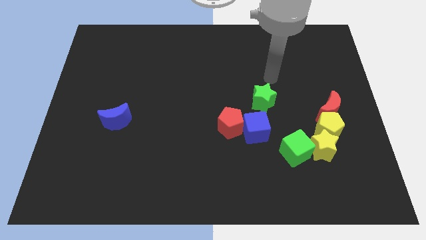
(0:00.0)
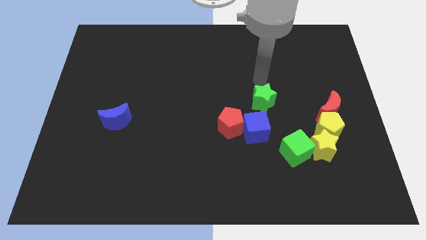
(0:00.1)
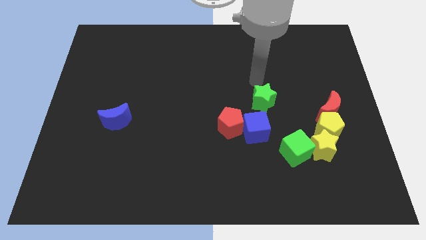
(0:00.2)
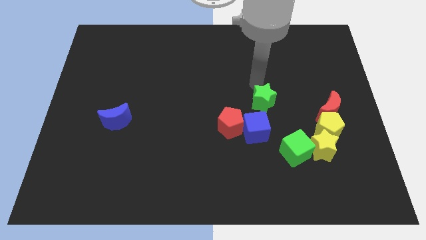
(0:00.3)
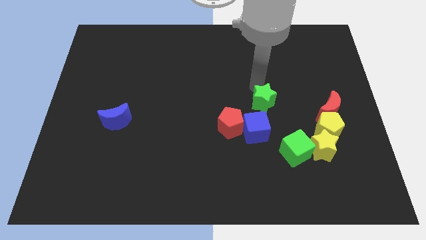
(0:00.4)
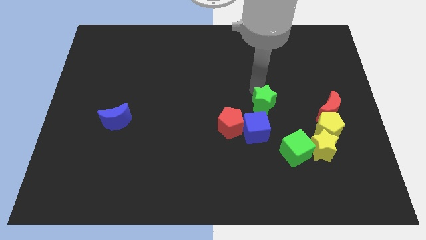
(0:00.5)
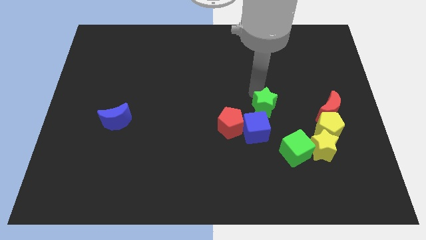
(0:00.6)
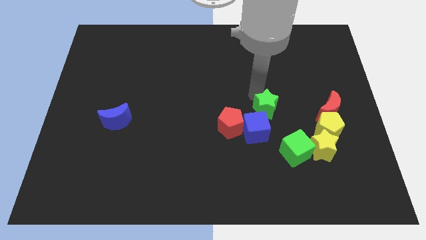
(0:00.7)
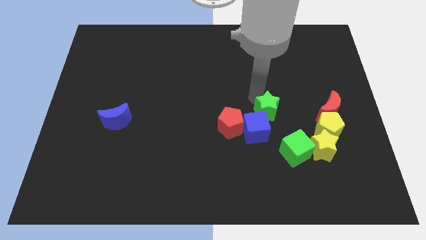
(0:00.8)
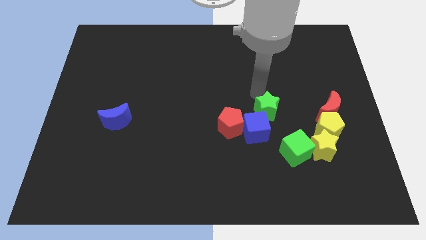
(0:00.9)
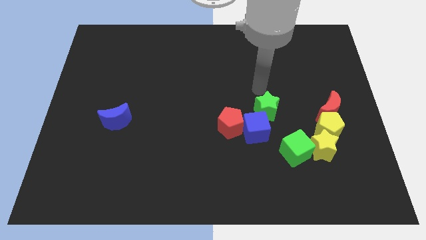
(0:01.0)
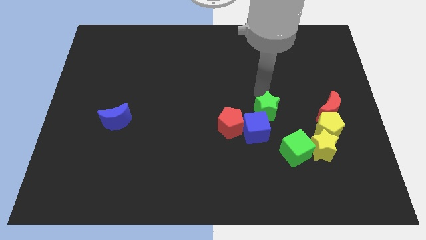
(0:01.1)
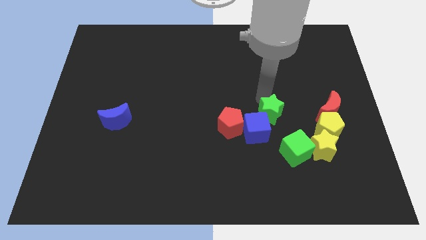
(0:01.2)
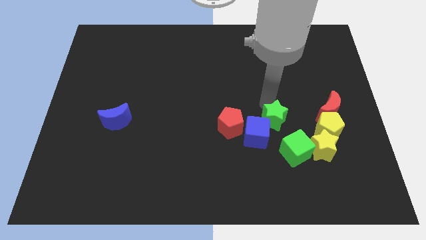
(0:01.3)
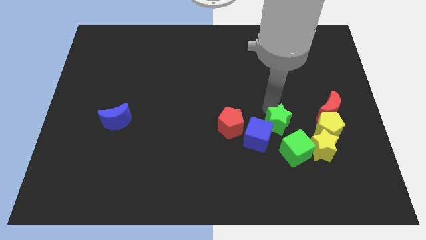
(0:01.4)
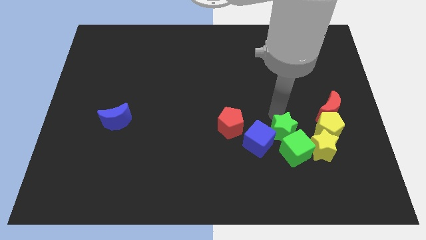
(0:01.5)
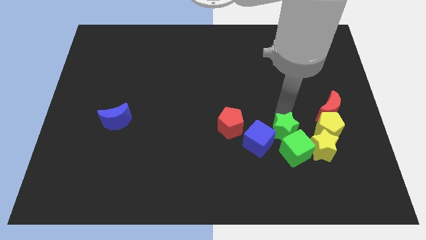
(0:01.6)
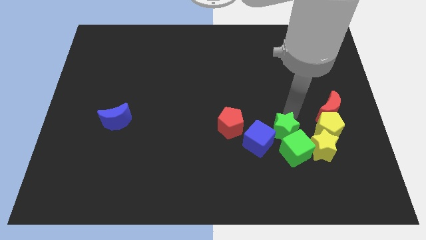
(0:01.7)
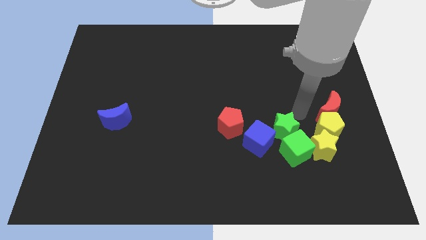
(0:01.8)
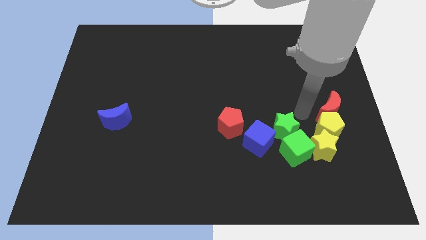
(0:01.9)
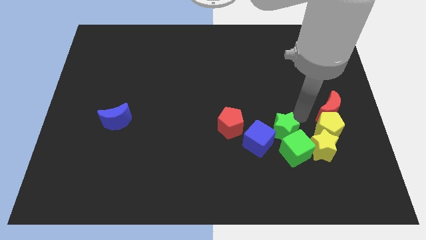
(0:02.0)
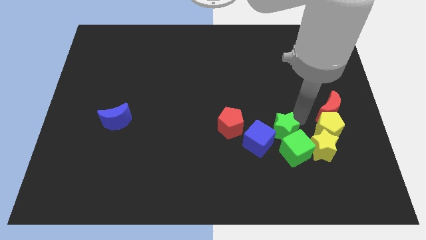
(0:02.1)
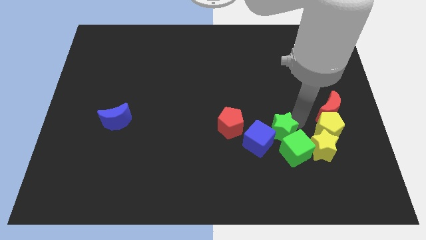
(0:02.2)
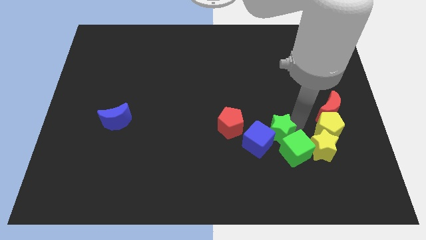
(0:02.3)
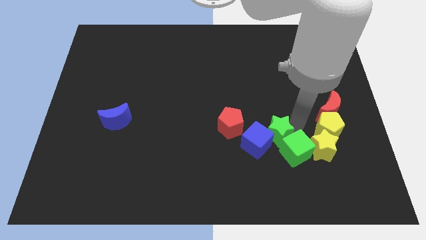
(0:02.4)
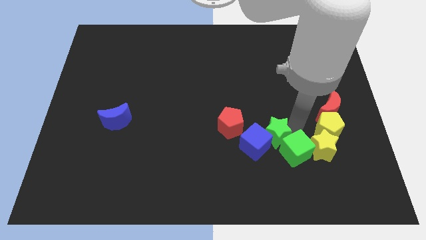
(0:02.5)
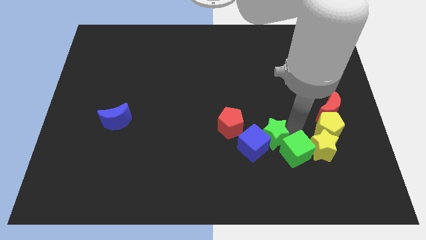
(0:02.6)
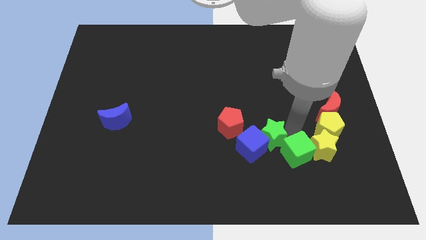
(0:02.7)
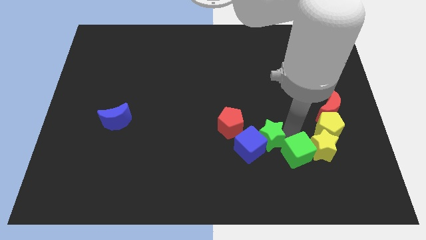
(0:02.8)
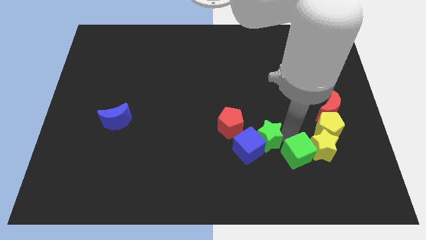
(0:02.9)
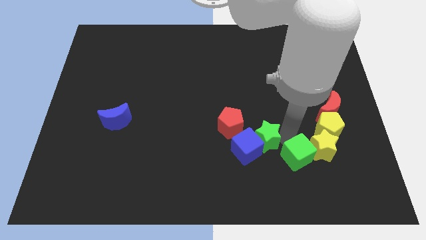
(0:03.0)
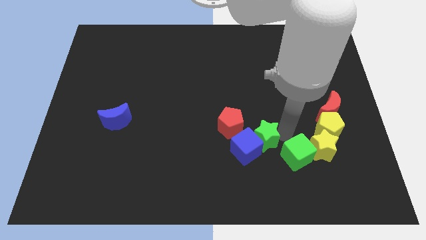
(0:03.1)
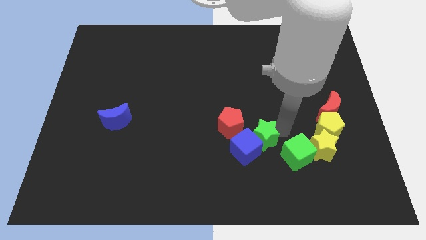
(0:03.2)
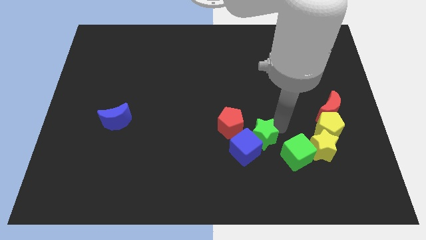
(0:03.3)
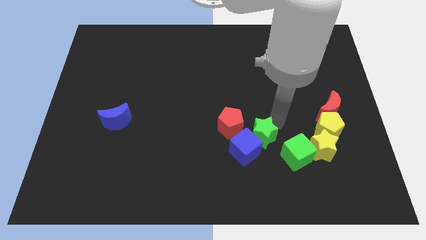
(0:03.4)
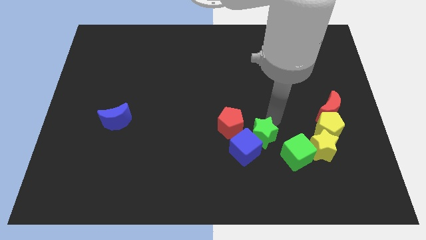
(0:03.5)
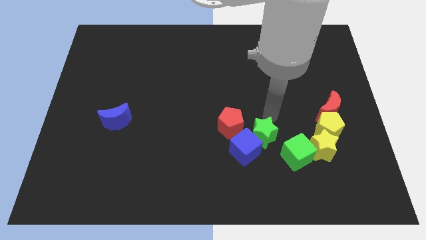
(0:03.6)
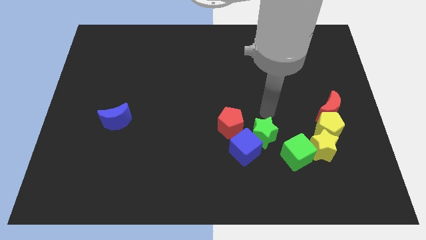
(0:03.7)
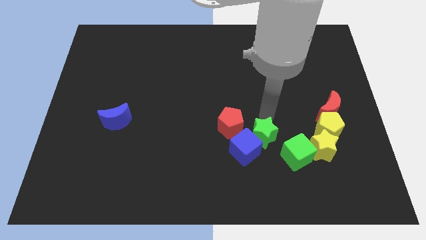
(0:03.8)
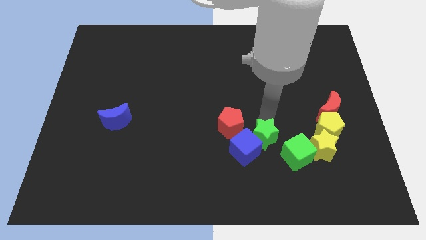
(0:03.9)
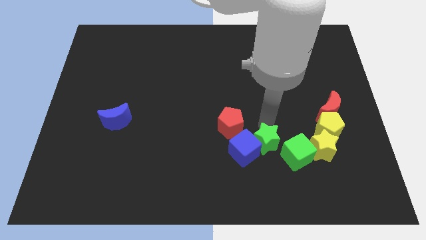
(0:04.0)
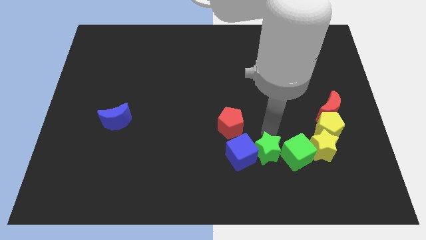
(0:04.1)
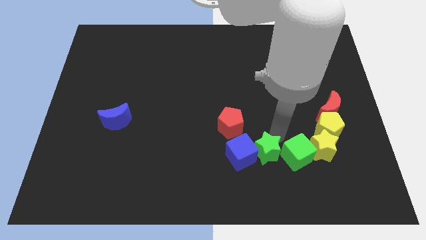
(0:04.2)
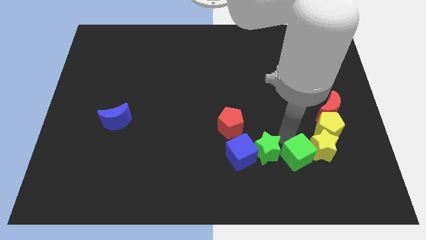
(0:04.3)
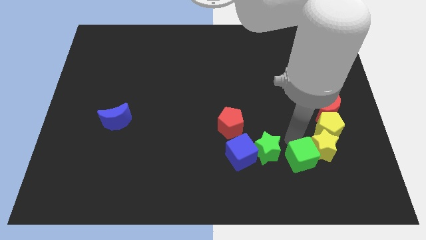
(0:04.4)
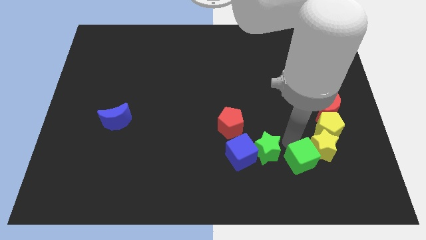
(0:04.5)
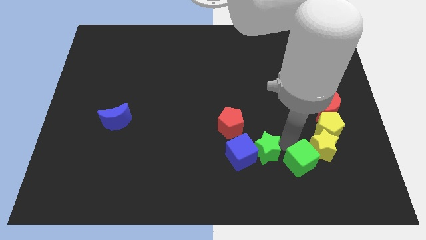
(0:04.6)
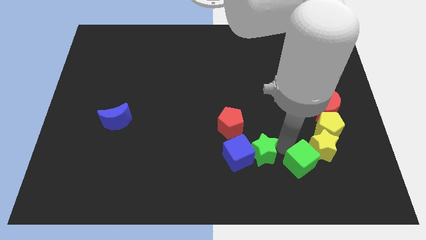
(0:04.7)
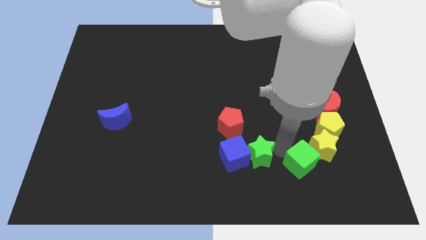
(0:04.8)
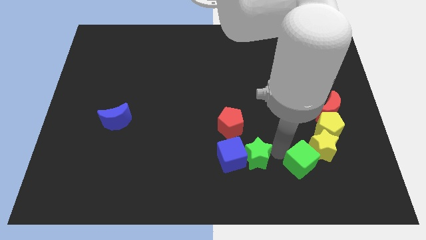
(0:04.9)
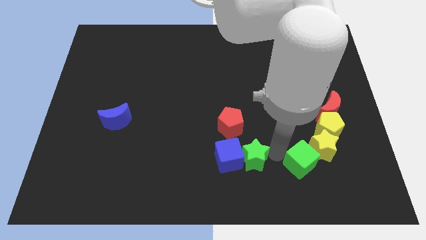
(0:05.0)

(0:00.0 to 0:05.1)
move the green star to the bottom side of the red pentagon

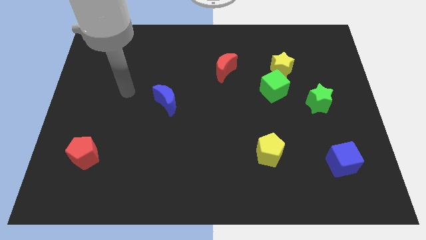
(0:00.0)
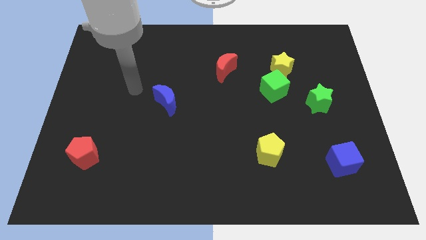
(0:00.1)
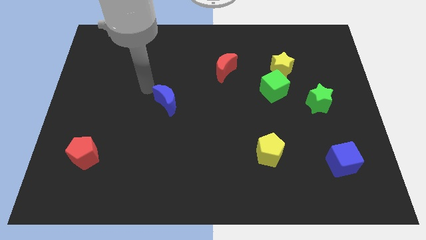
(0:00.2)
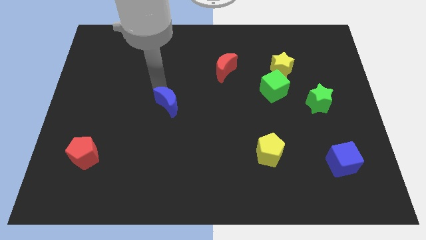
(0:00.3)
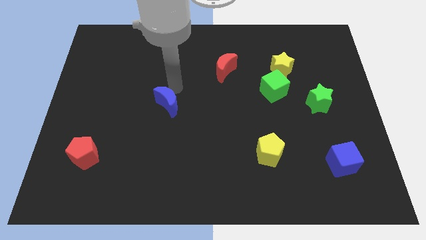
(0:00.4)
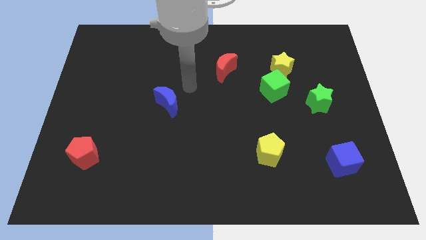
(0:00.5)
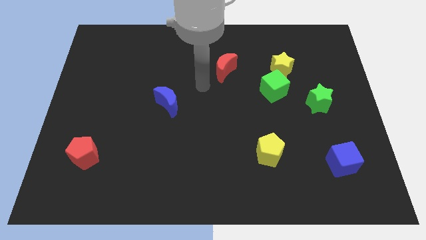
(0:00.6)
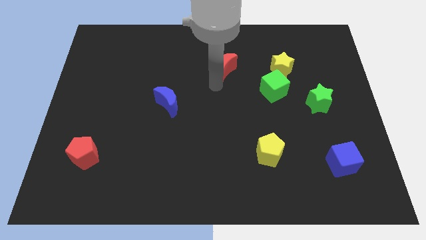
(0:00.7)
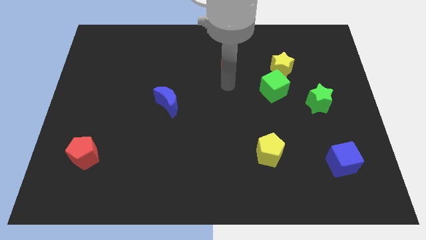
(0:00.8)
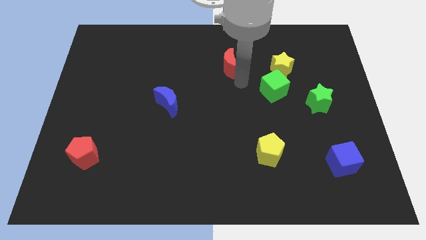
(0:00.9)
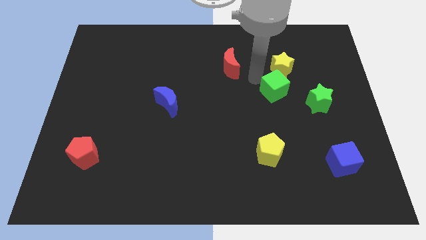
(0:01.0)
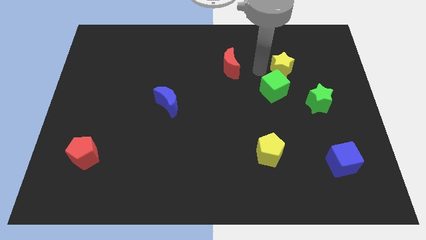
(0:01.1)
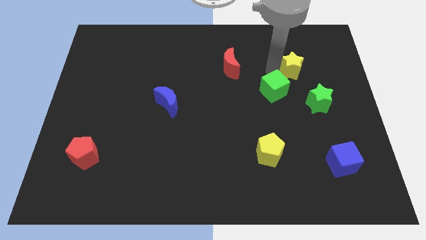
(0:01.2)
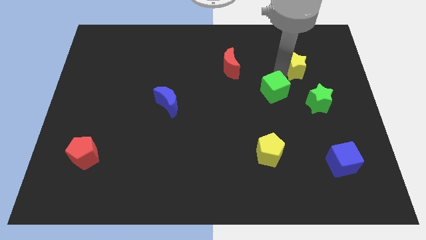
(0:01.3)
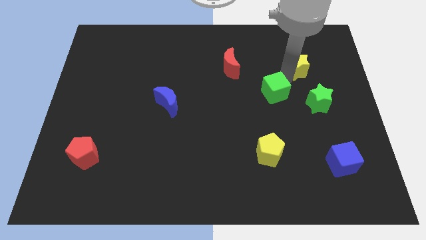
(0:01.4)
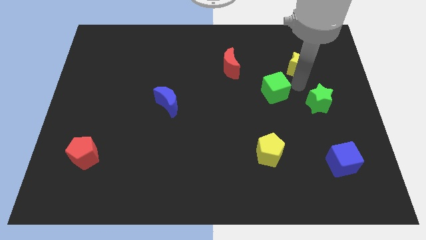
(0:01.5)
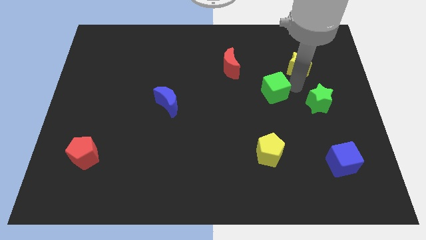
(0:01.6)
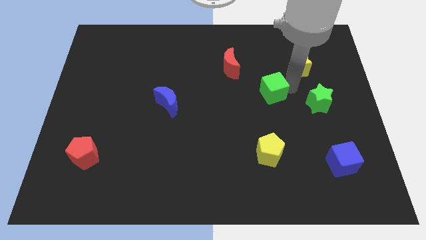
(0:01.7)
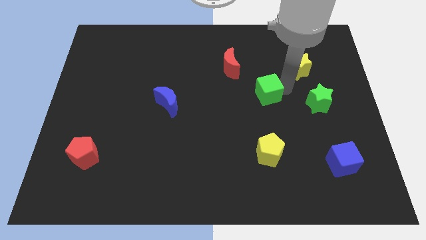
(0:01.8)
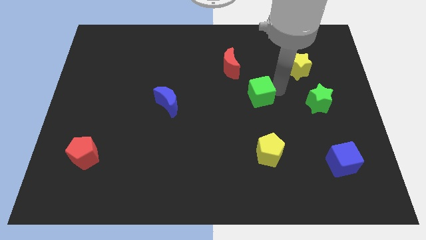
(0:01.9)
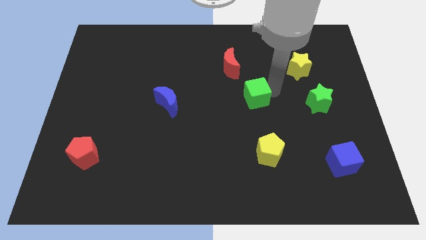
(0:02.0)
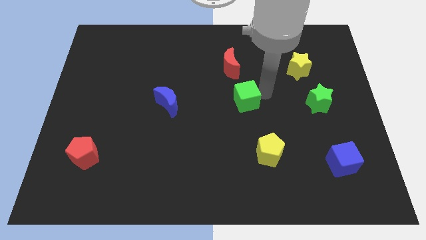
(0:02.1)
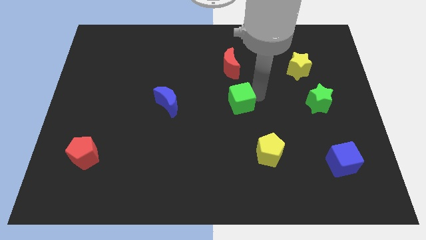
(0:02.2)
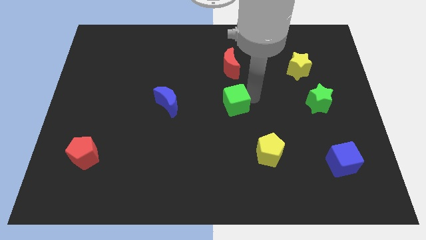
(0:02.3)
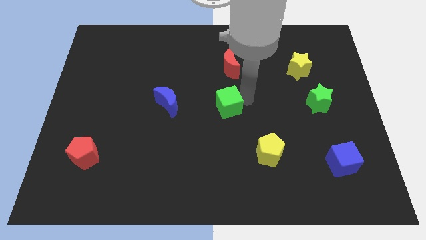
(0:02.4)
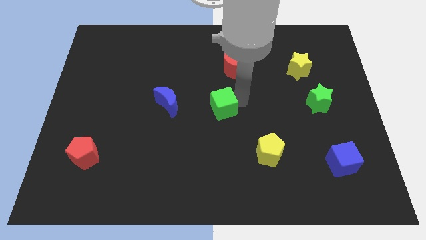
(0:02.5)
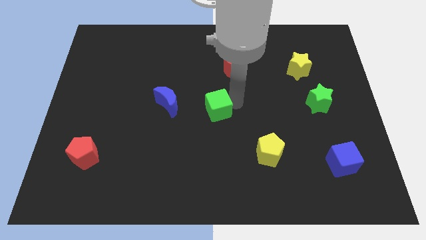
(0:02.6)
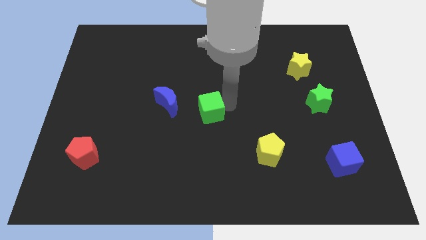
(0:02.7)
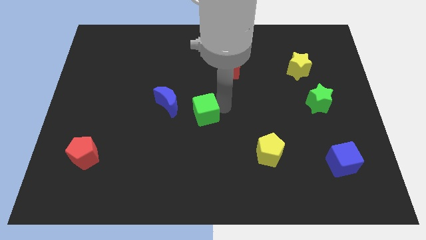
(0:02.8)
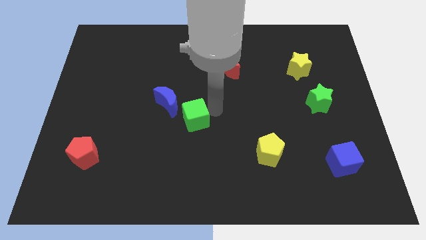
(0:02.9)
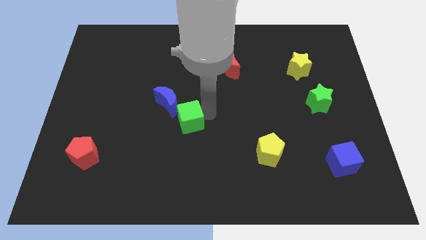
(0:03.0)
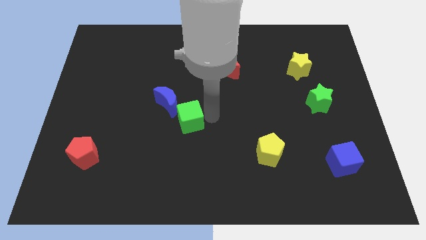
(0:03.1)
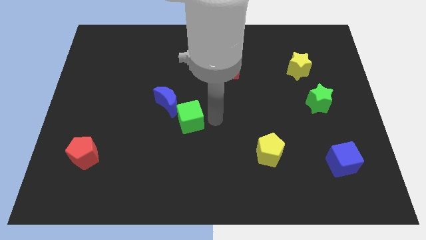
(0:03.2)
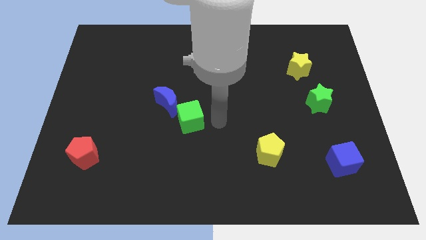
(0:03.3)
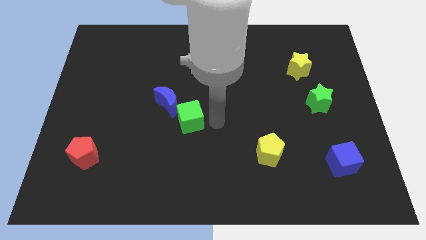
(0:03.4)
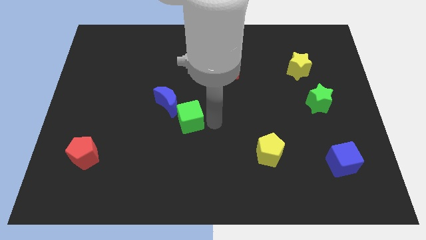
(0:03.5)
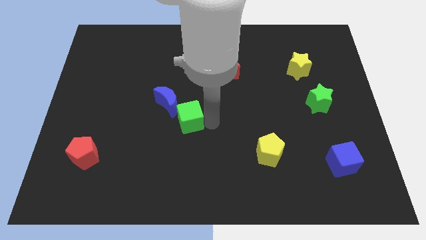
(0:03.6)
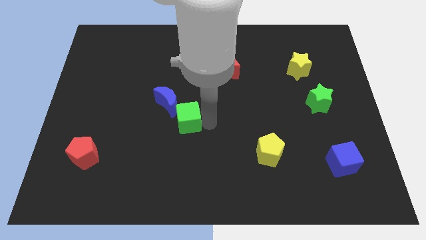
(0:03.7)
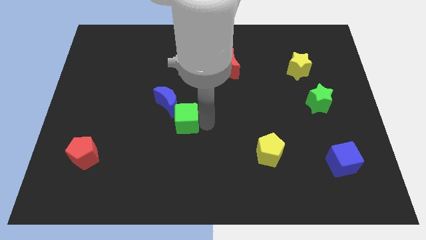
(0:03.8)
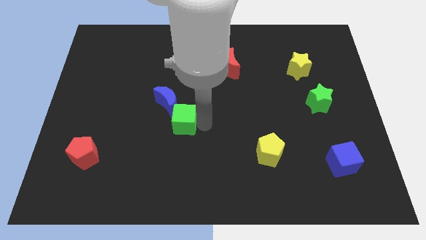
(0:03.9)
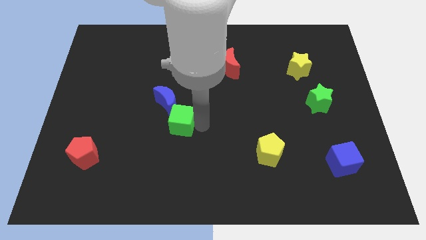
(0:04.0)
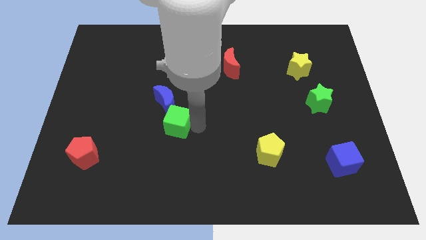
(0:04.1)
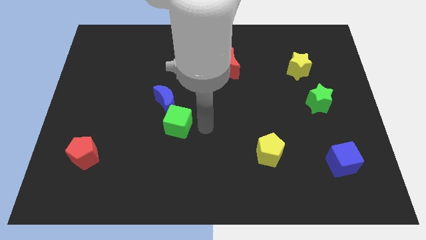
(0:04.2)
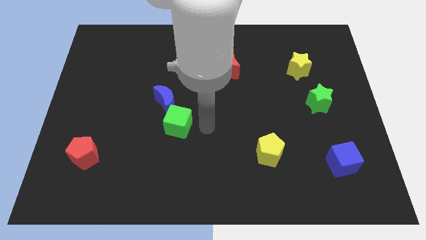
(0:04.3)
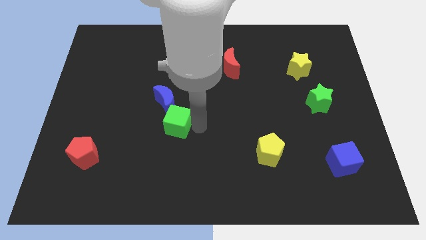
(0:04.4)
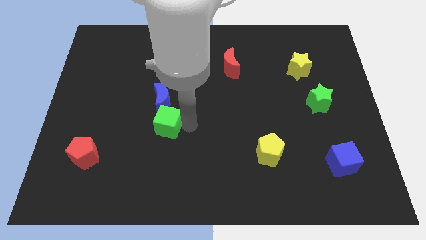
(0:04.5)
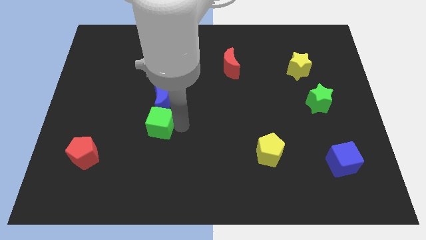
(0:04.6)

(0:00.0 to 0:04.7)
put the green cube to the bottom left side of the blue moon
